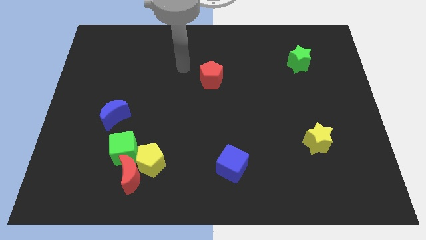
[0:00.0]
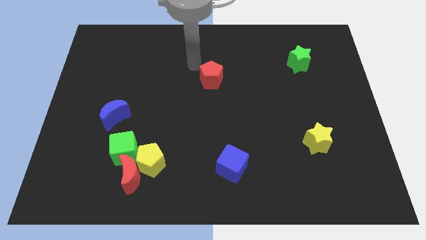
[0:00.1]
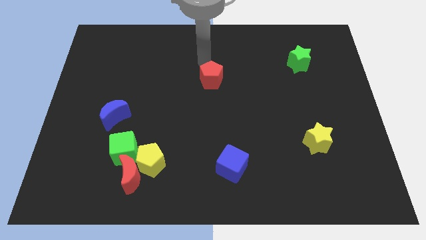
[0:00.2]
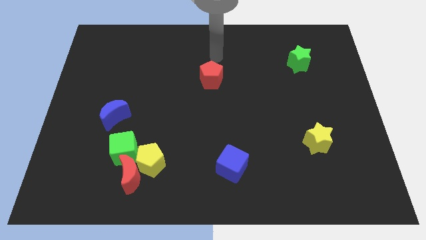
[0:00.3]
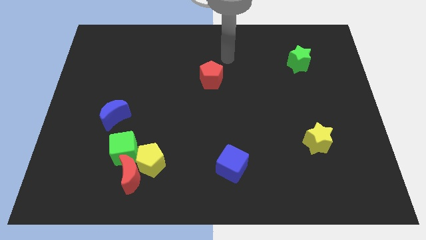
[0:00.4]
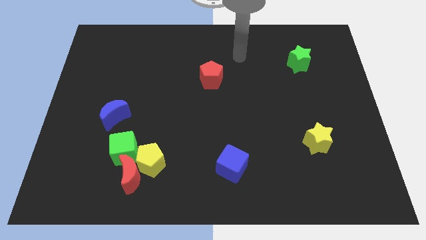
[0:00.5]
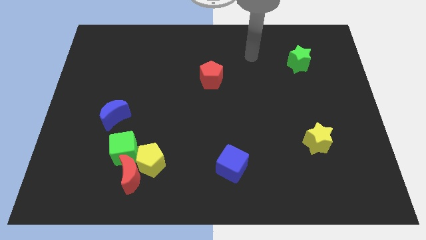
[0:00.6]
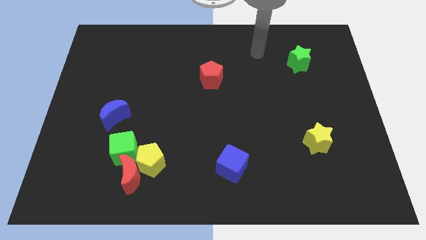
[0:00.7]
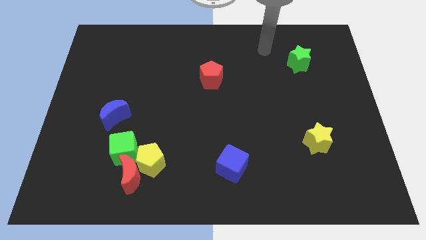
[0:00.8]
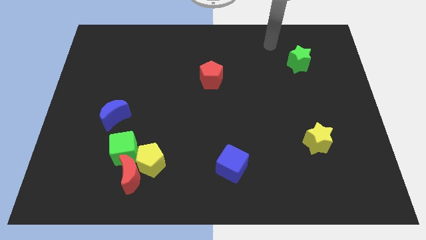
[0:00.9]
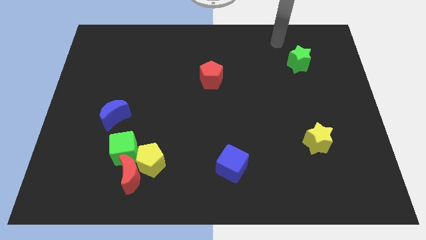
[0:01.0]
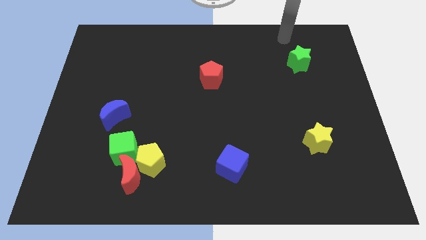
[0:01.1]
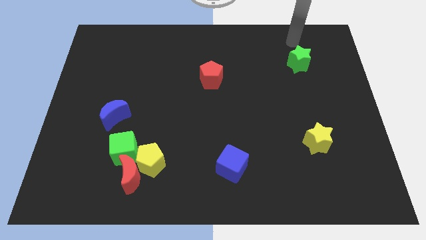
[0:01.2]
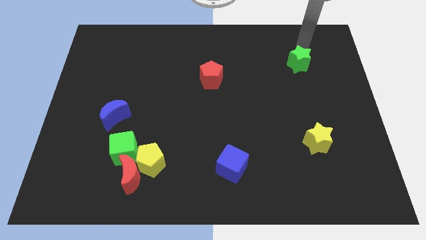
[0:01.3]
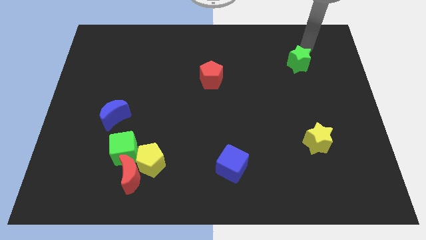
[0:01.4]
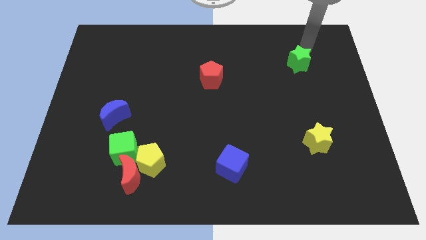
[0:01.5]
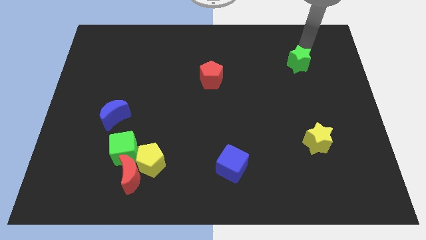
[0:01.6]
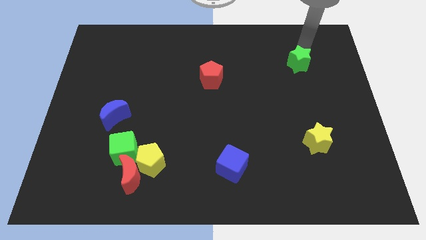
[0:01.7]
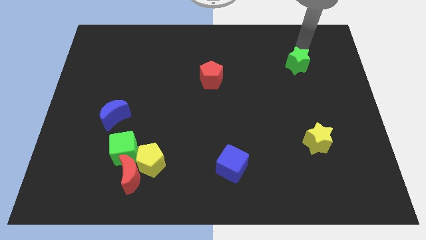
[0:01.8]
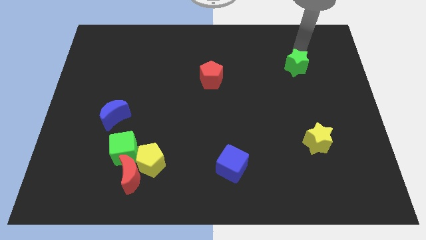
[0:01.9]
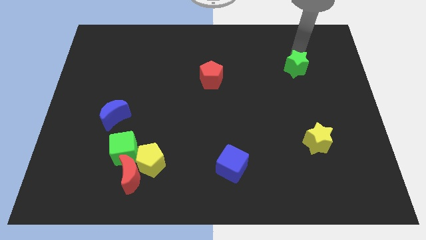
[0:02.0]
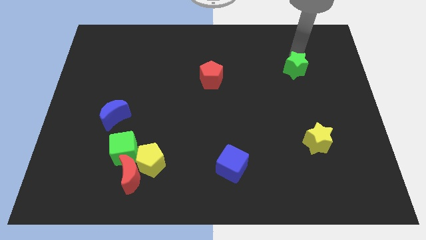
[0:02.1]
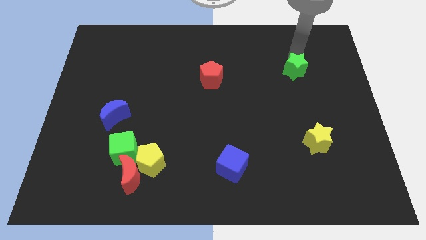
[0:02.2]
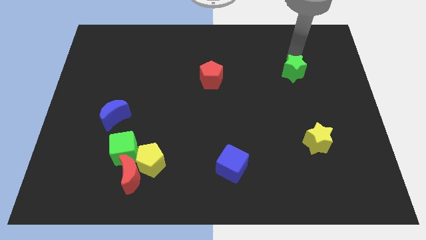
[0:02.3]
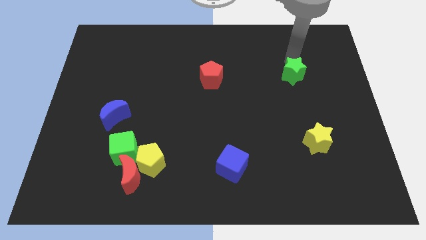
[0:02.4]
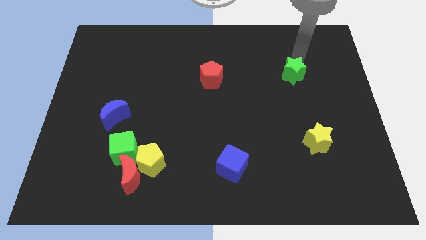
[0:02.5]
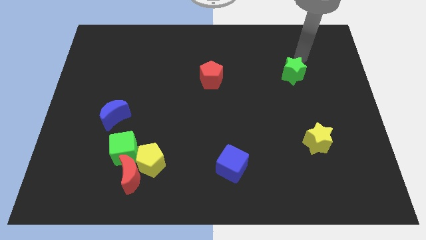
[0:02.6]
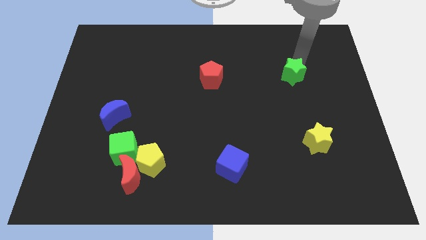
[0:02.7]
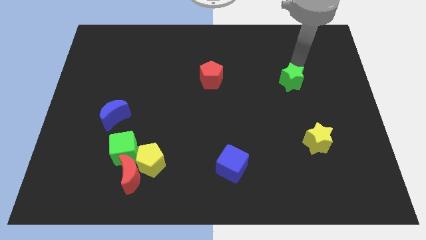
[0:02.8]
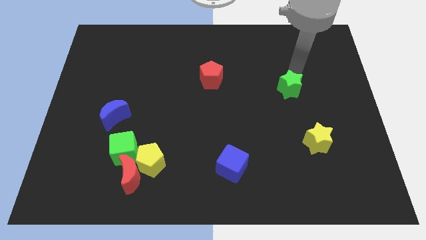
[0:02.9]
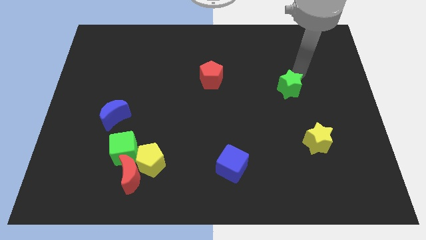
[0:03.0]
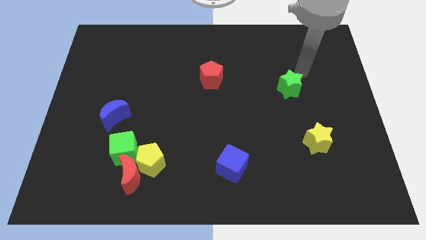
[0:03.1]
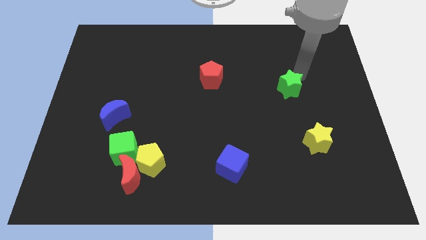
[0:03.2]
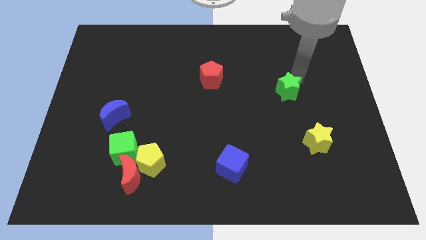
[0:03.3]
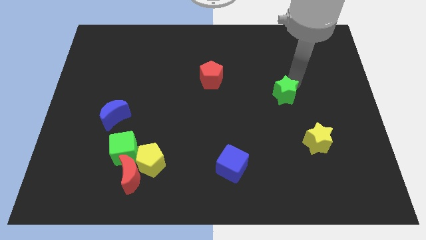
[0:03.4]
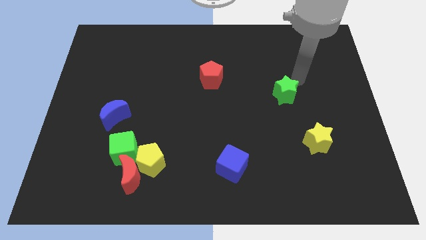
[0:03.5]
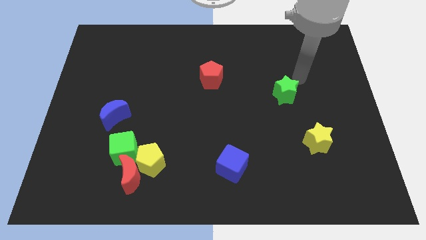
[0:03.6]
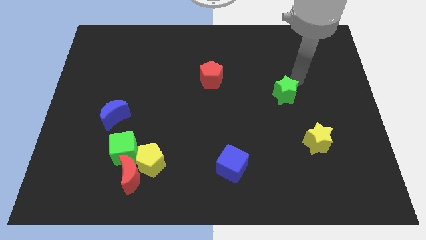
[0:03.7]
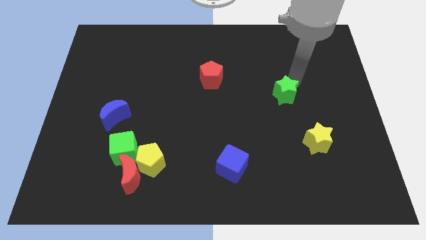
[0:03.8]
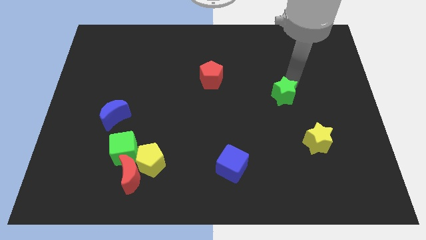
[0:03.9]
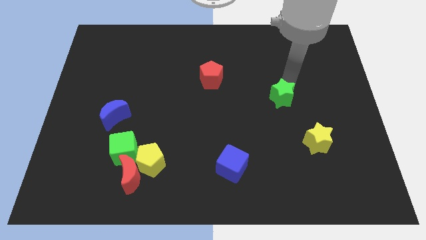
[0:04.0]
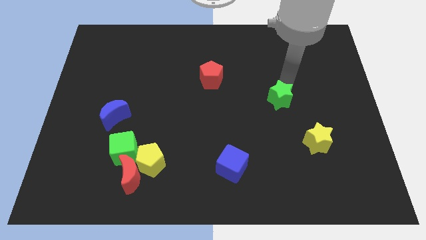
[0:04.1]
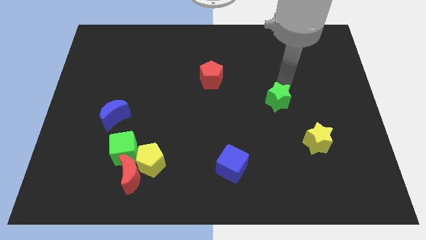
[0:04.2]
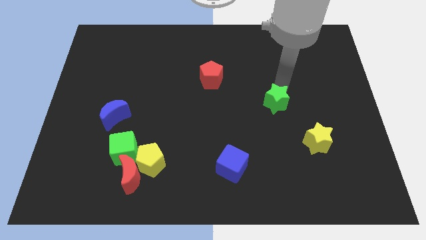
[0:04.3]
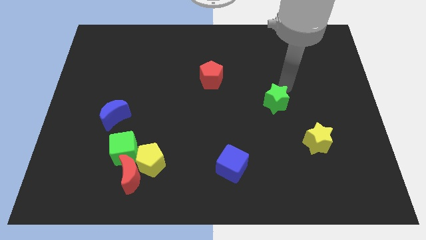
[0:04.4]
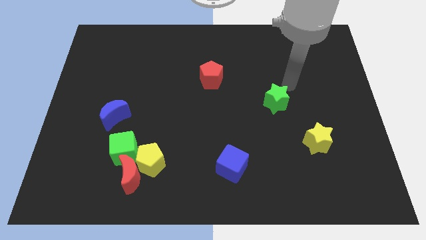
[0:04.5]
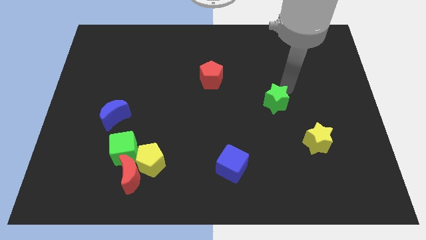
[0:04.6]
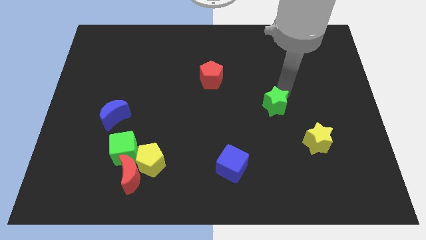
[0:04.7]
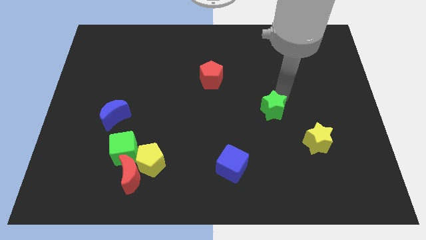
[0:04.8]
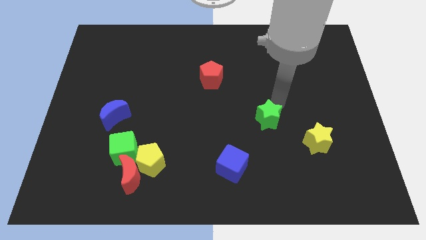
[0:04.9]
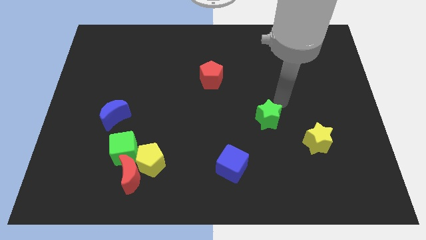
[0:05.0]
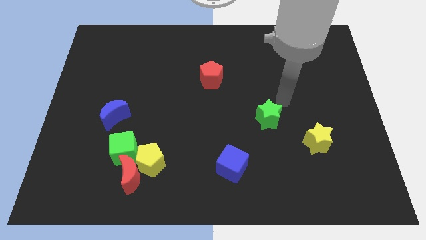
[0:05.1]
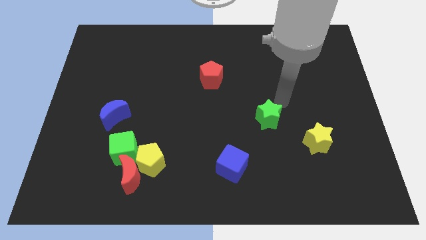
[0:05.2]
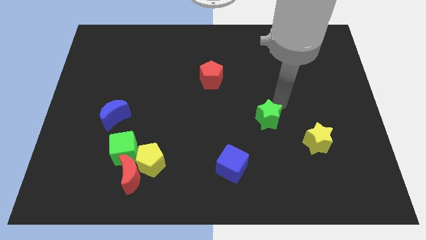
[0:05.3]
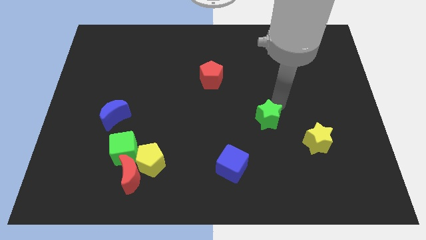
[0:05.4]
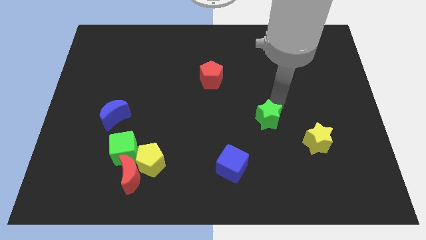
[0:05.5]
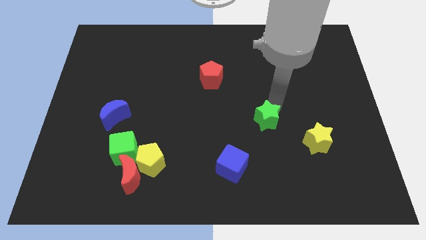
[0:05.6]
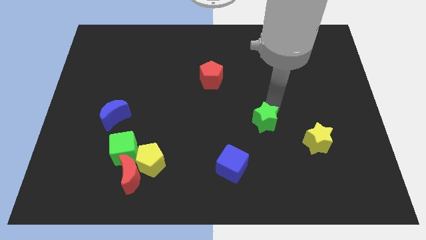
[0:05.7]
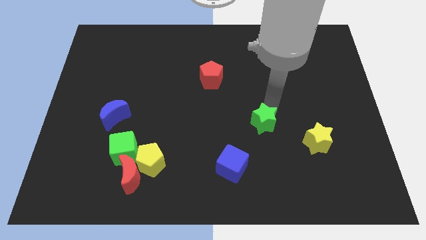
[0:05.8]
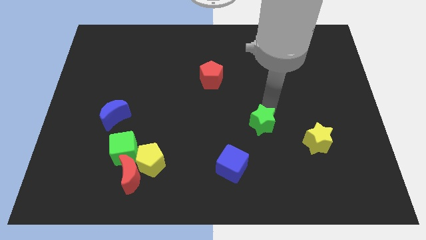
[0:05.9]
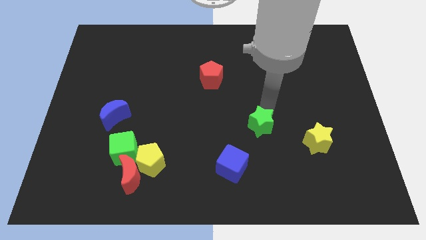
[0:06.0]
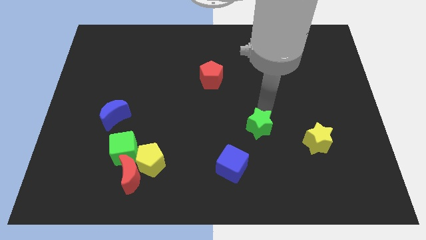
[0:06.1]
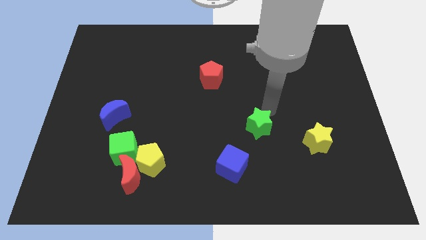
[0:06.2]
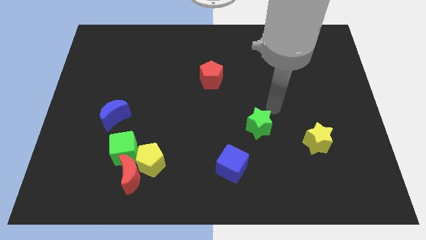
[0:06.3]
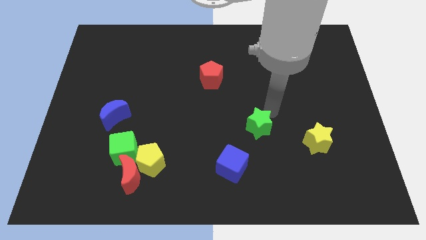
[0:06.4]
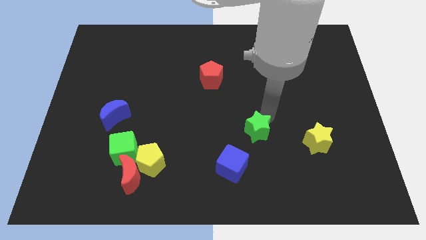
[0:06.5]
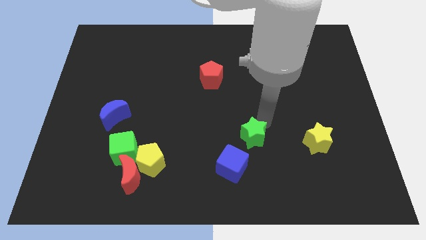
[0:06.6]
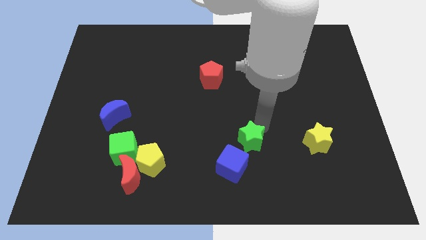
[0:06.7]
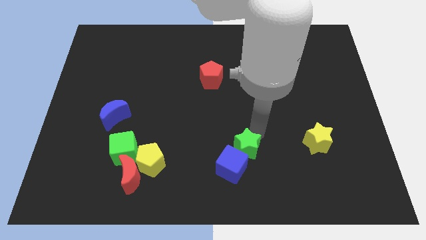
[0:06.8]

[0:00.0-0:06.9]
push the green star to the blue cube

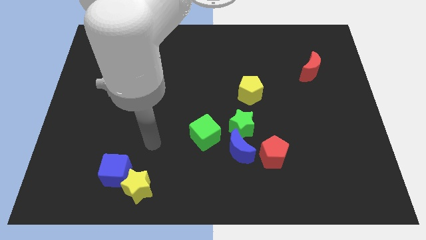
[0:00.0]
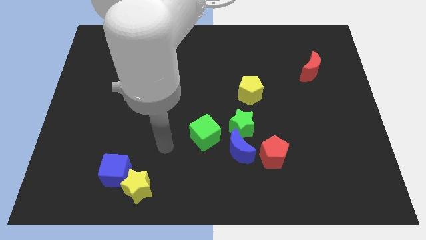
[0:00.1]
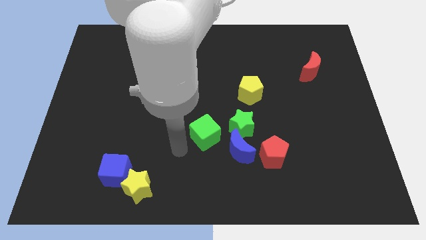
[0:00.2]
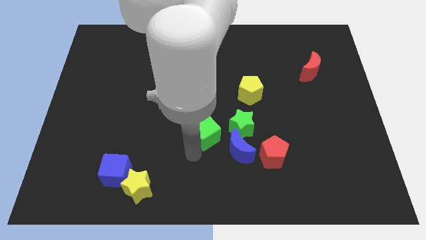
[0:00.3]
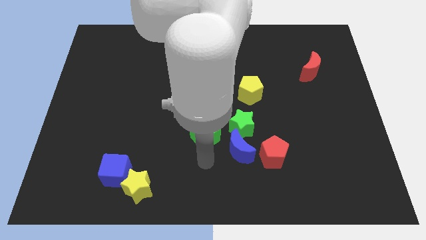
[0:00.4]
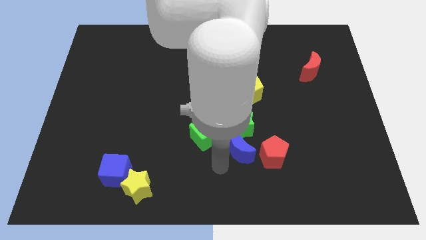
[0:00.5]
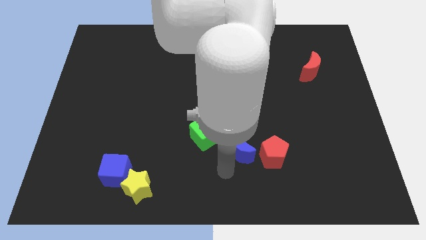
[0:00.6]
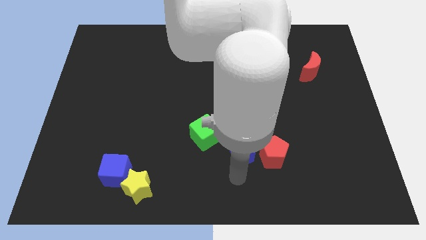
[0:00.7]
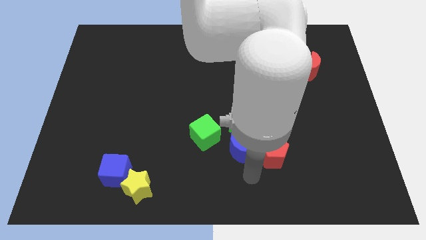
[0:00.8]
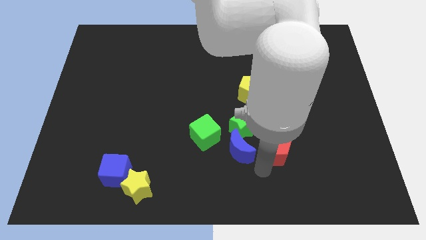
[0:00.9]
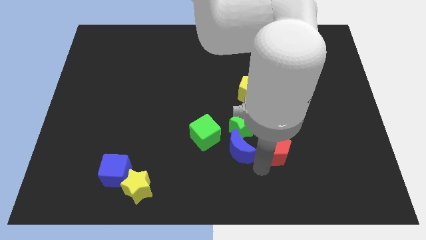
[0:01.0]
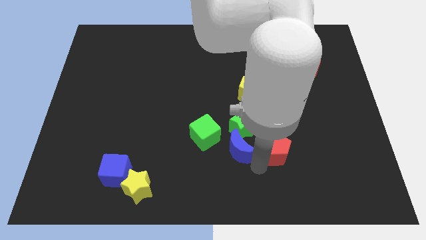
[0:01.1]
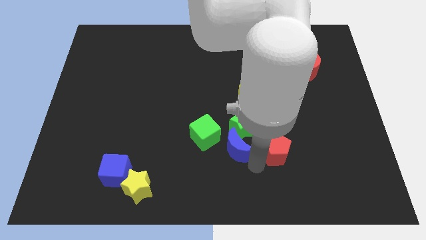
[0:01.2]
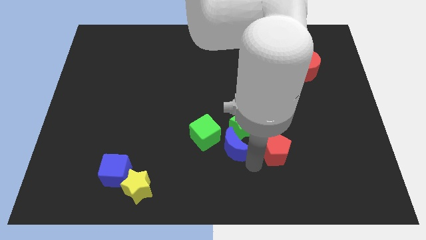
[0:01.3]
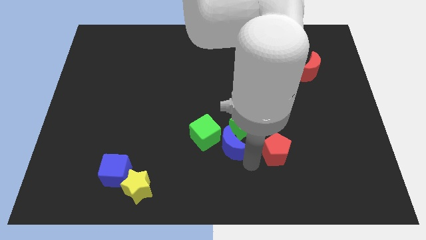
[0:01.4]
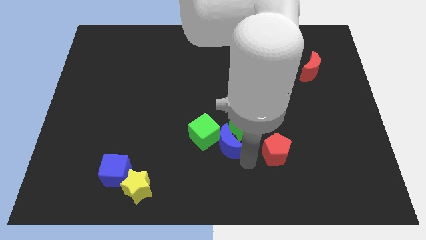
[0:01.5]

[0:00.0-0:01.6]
move the blue moon close to the green cube
